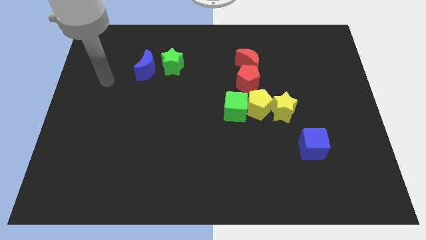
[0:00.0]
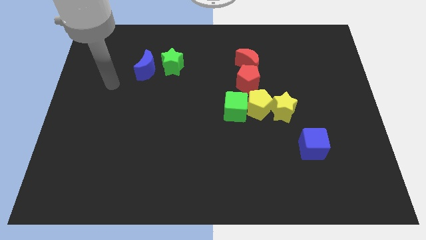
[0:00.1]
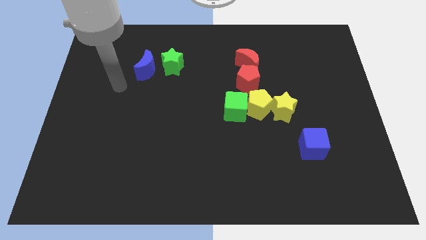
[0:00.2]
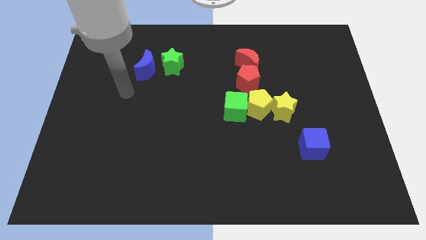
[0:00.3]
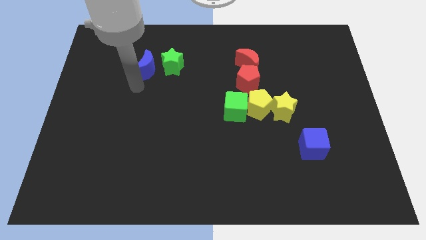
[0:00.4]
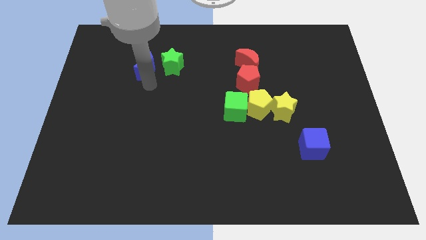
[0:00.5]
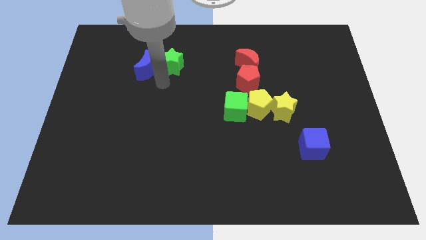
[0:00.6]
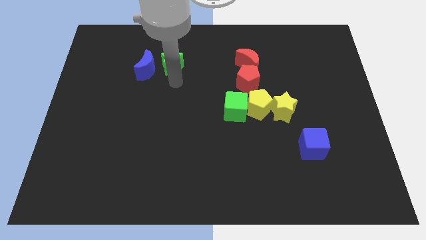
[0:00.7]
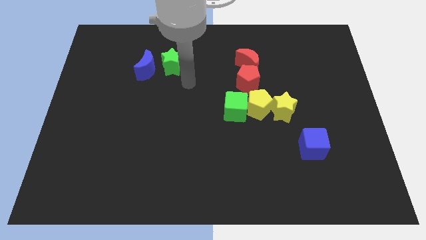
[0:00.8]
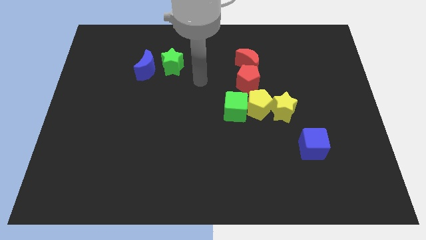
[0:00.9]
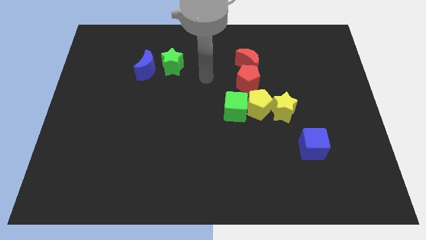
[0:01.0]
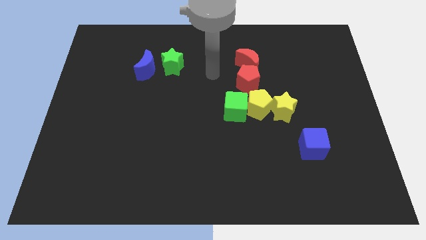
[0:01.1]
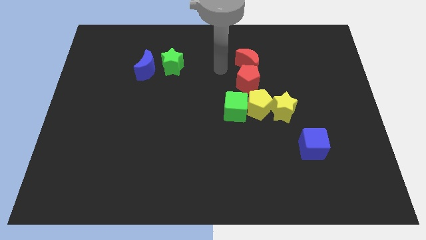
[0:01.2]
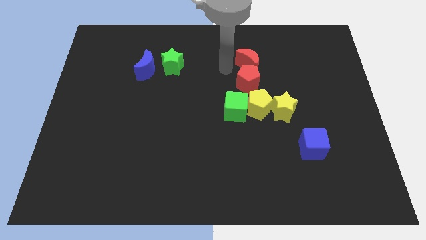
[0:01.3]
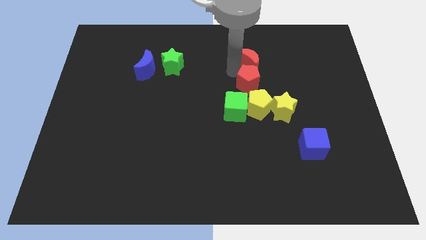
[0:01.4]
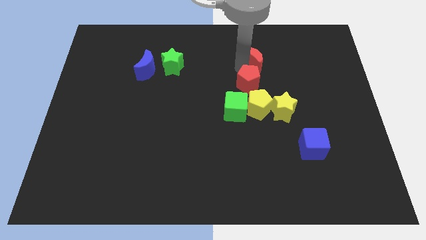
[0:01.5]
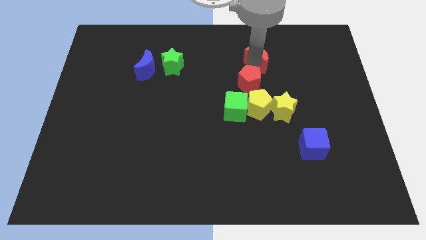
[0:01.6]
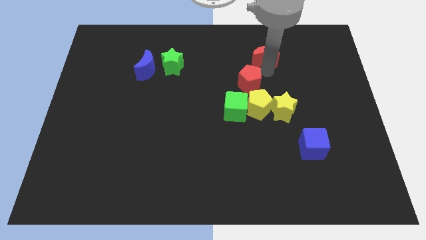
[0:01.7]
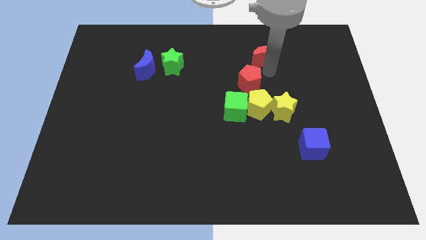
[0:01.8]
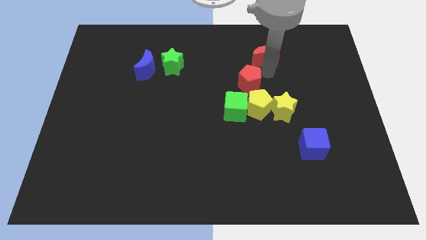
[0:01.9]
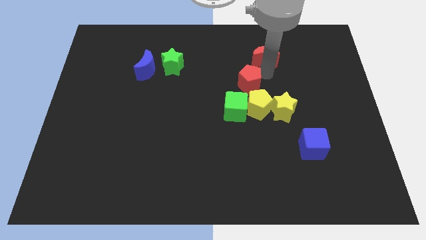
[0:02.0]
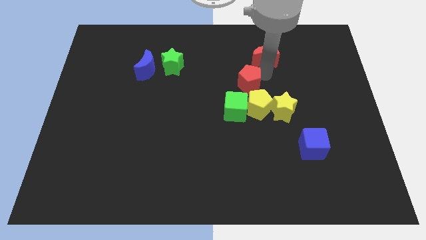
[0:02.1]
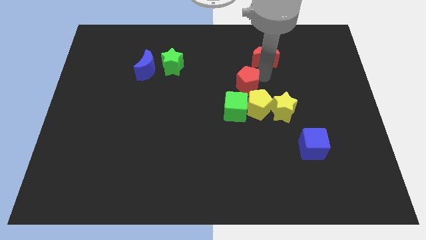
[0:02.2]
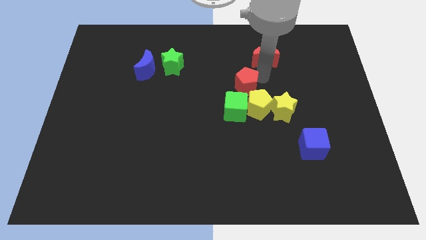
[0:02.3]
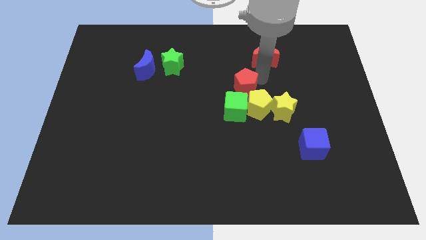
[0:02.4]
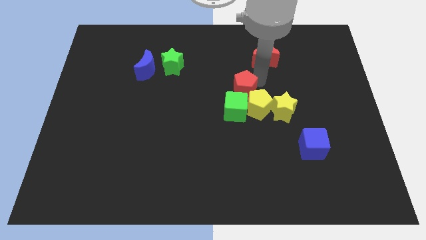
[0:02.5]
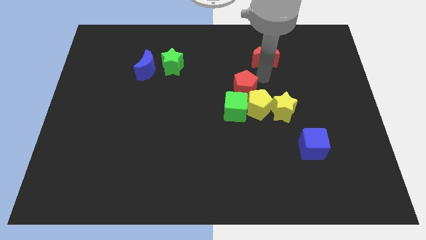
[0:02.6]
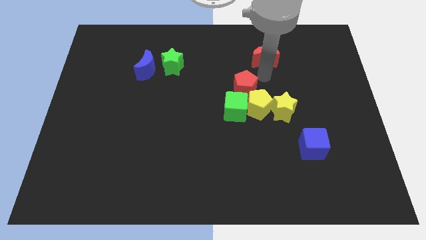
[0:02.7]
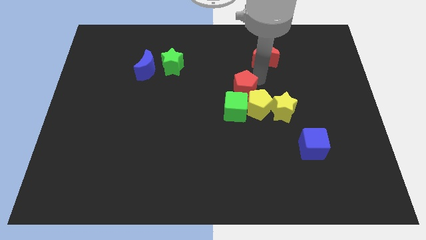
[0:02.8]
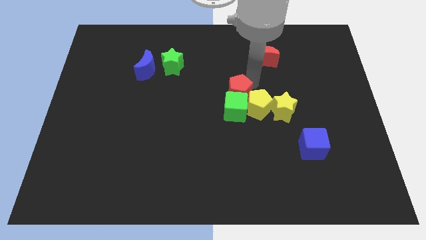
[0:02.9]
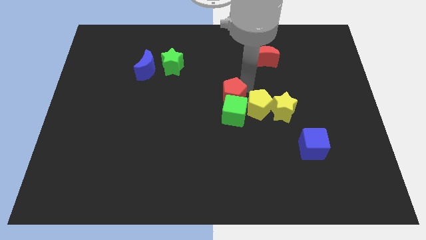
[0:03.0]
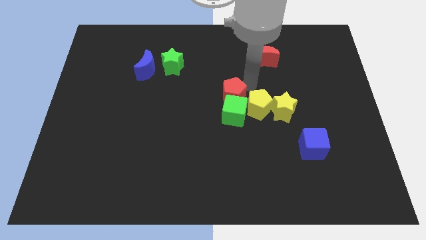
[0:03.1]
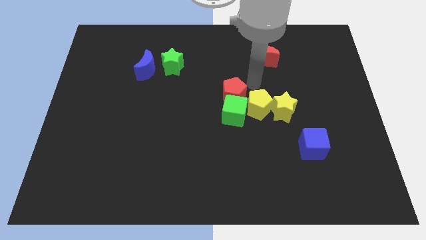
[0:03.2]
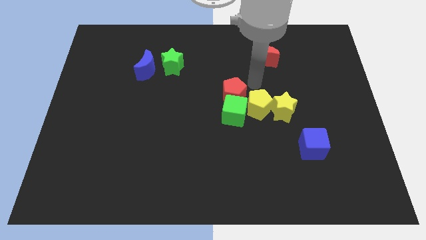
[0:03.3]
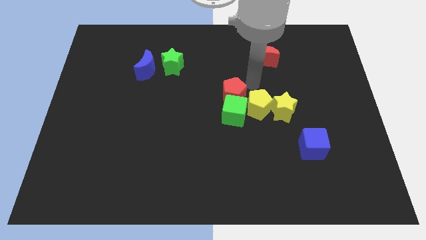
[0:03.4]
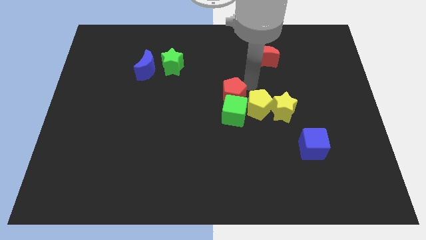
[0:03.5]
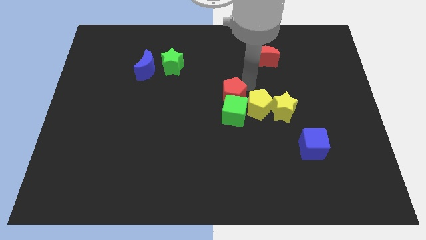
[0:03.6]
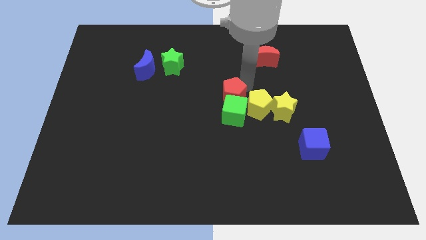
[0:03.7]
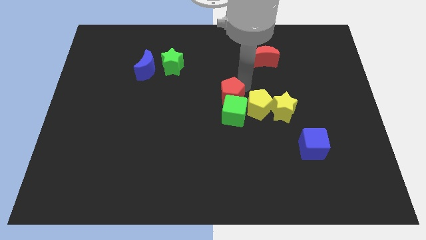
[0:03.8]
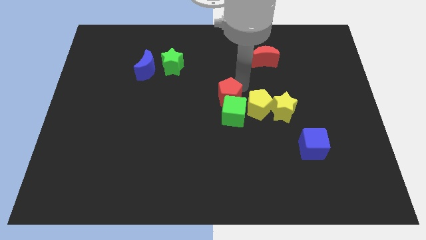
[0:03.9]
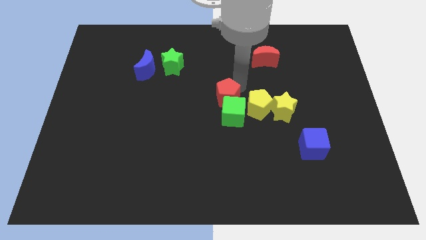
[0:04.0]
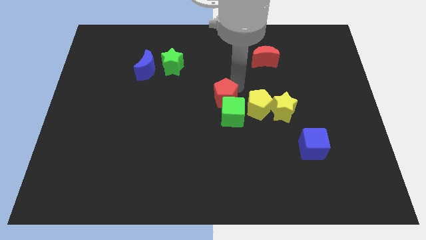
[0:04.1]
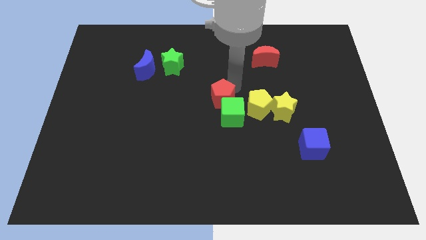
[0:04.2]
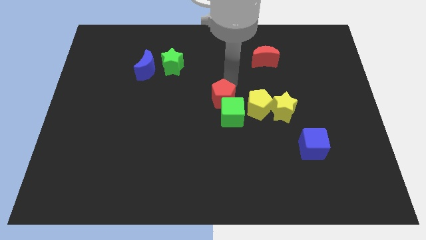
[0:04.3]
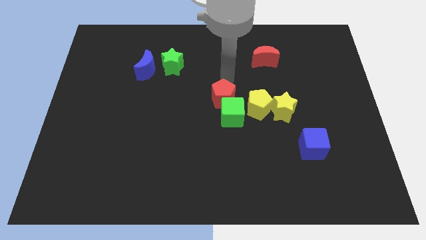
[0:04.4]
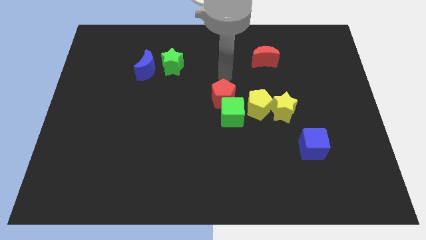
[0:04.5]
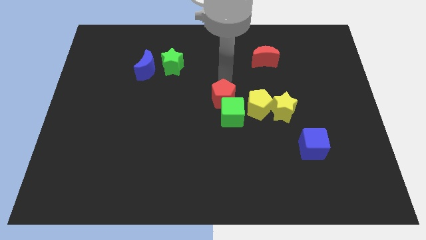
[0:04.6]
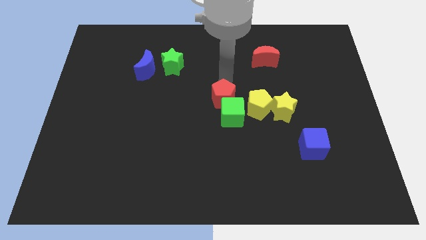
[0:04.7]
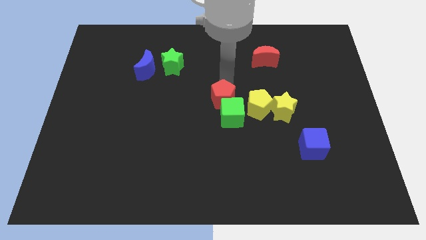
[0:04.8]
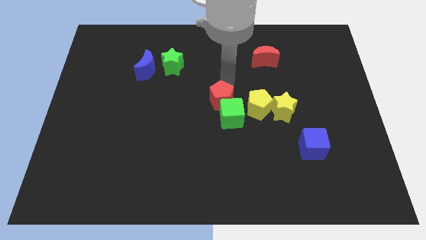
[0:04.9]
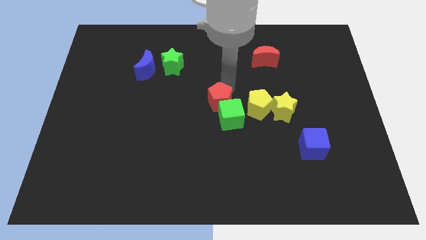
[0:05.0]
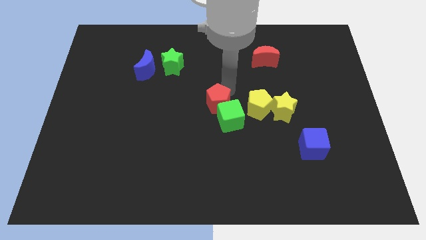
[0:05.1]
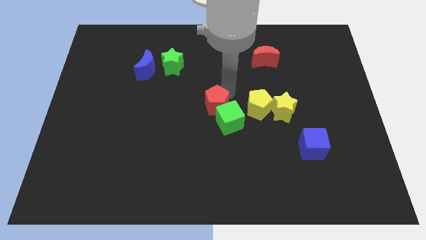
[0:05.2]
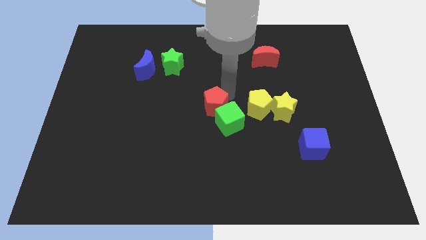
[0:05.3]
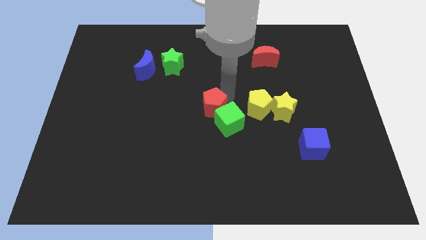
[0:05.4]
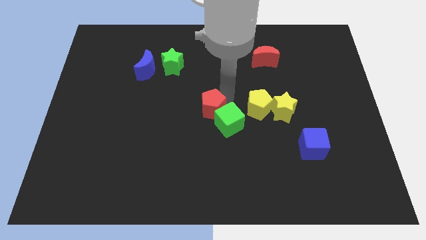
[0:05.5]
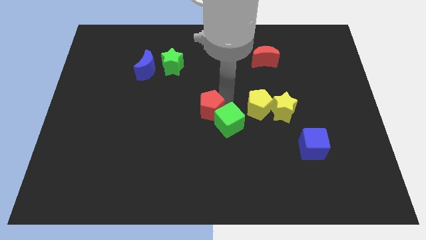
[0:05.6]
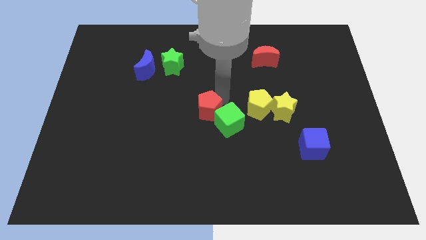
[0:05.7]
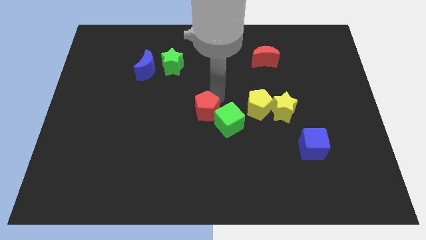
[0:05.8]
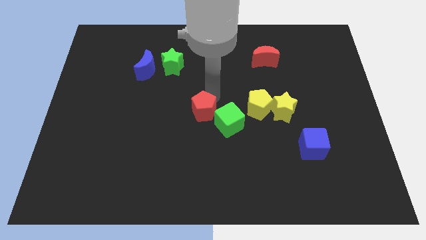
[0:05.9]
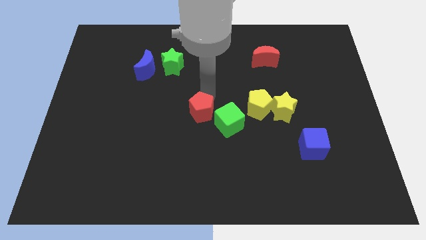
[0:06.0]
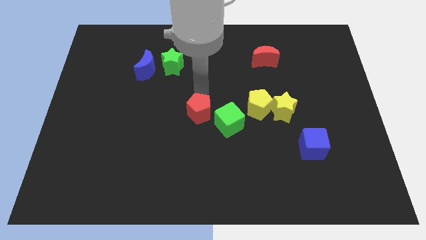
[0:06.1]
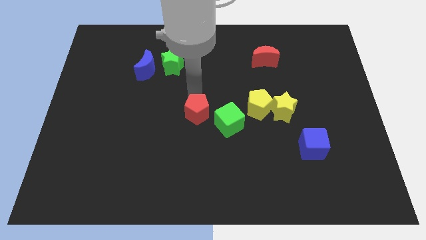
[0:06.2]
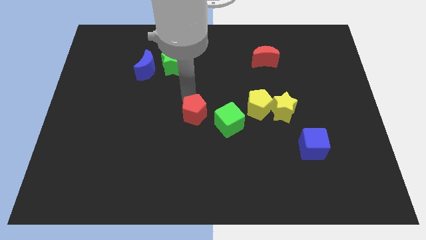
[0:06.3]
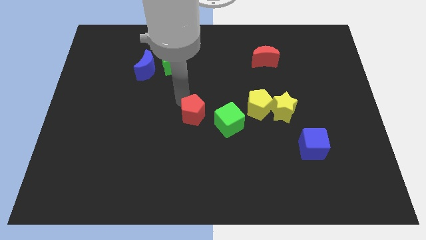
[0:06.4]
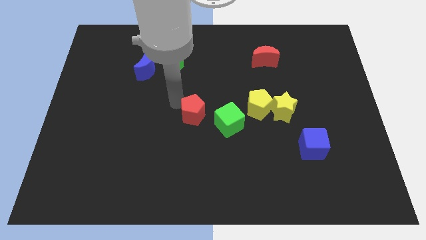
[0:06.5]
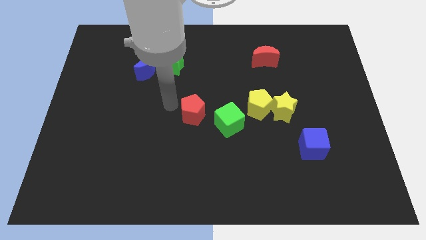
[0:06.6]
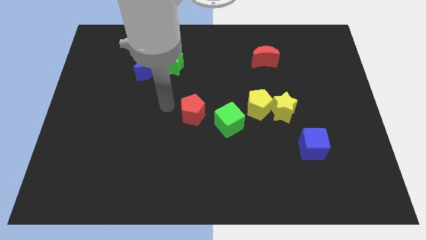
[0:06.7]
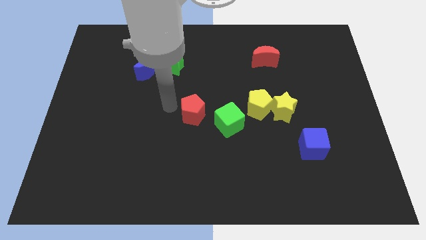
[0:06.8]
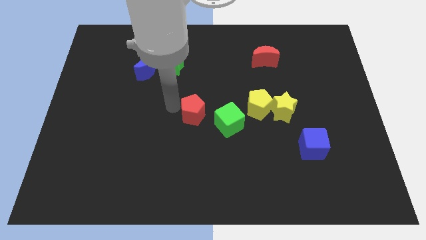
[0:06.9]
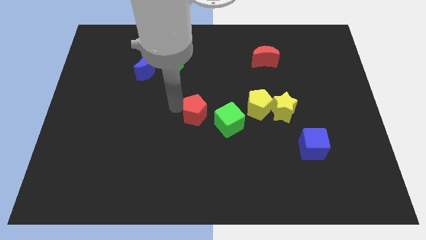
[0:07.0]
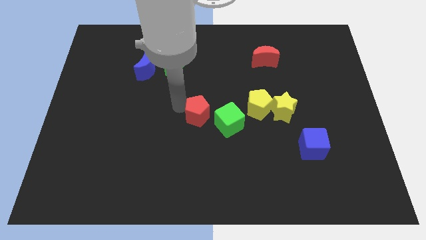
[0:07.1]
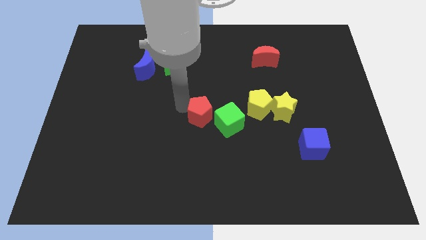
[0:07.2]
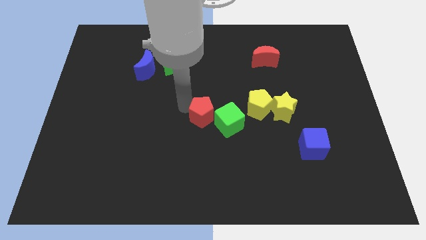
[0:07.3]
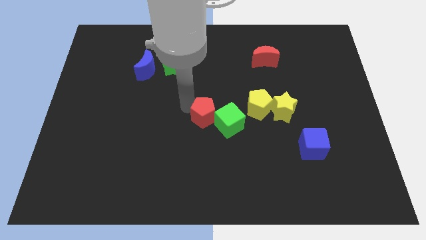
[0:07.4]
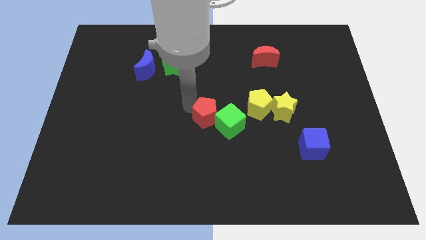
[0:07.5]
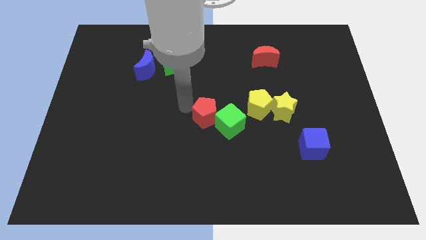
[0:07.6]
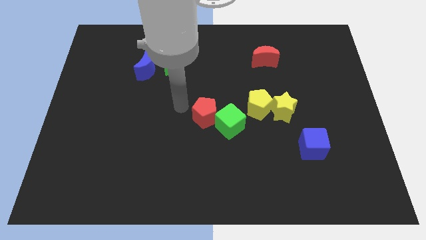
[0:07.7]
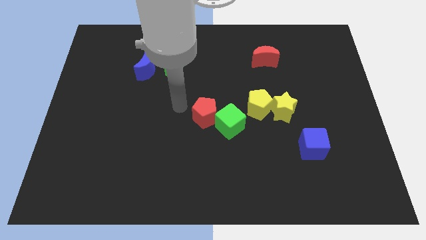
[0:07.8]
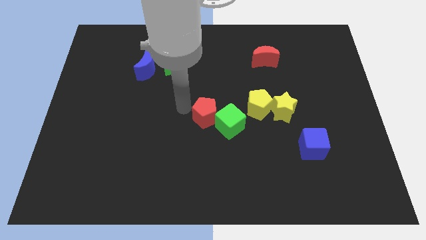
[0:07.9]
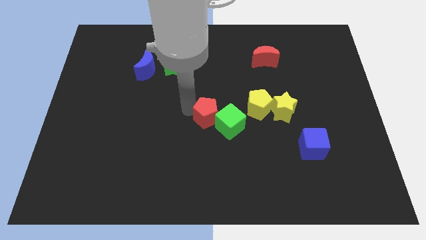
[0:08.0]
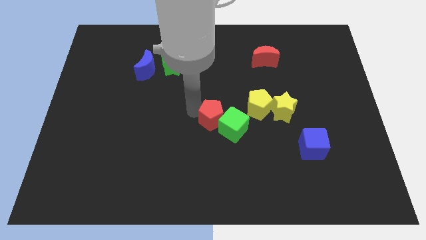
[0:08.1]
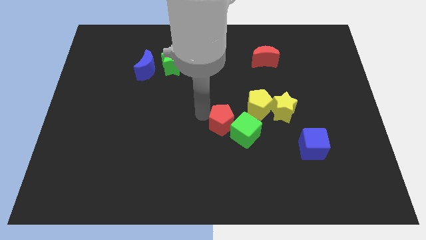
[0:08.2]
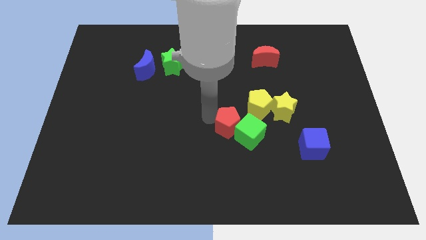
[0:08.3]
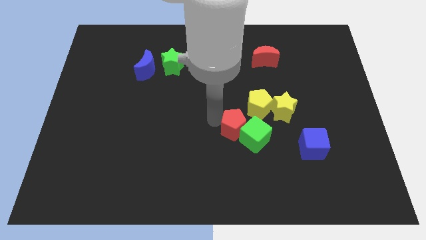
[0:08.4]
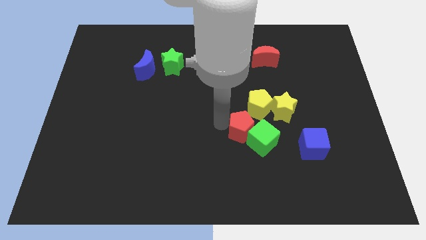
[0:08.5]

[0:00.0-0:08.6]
move the red pentagon to the bottom left side of the yellow star
